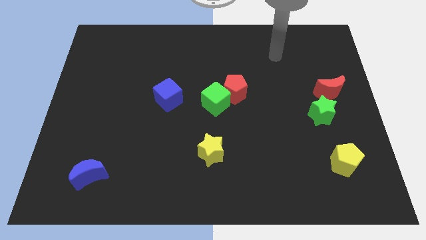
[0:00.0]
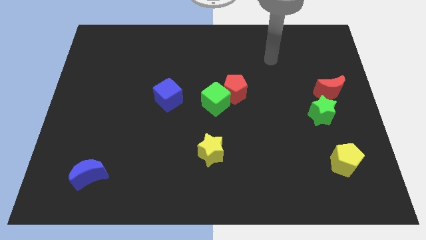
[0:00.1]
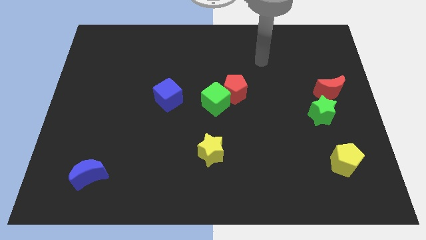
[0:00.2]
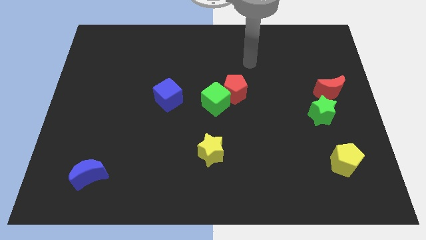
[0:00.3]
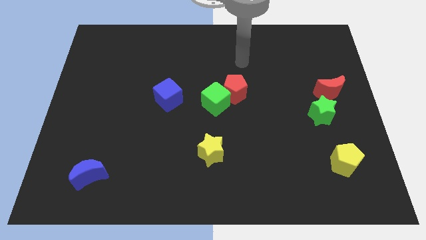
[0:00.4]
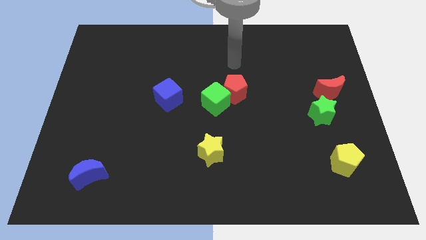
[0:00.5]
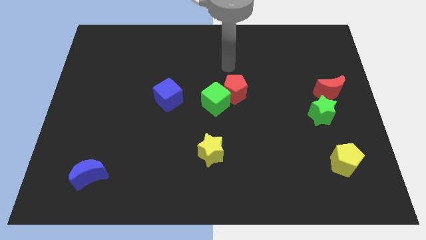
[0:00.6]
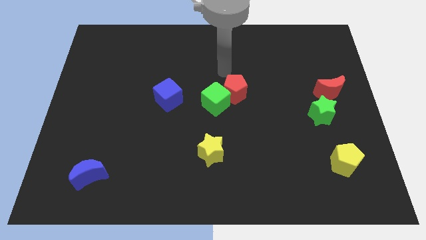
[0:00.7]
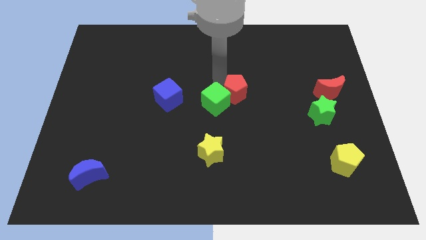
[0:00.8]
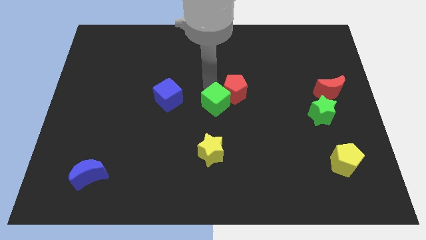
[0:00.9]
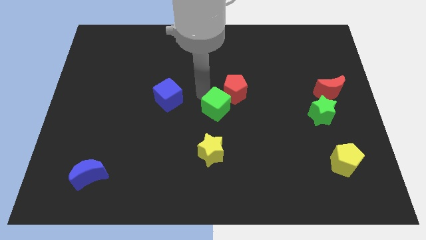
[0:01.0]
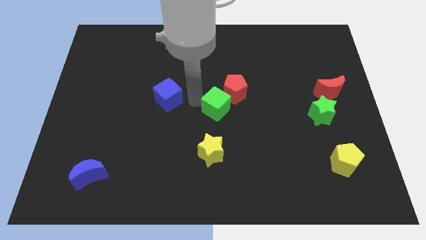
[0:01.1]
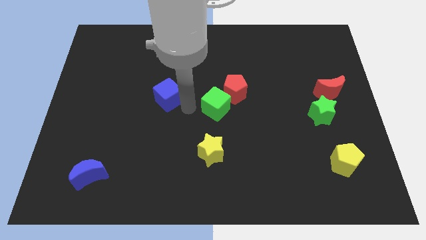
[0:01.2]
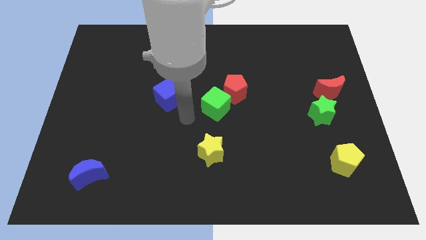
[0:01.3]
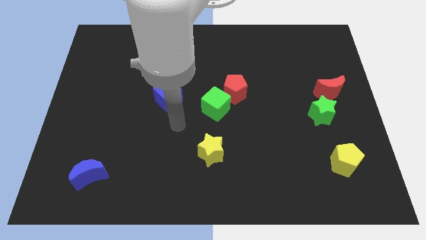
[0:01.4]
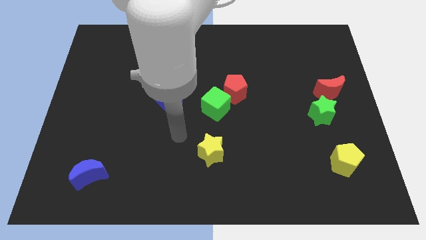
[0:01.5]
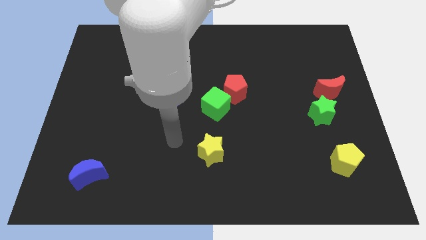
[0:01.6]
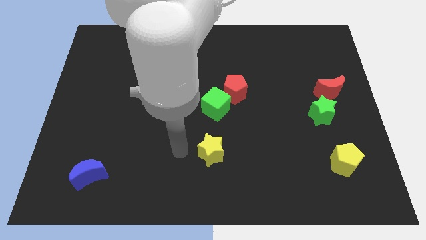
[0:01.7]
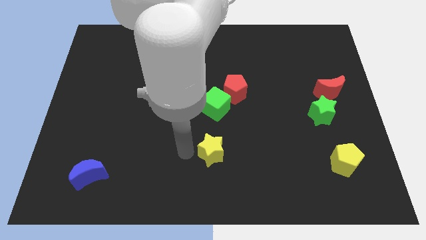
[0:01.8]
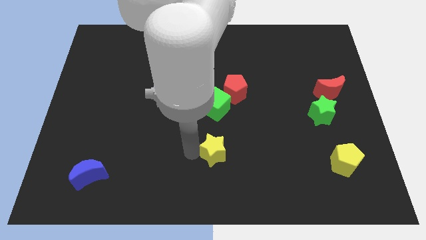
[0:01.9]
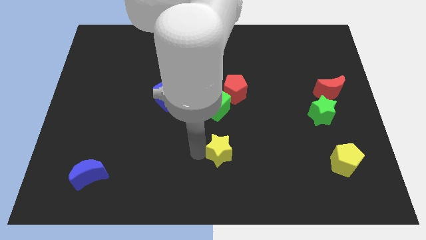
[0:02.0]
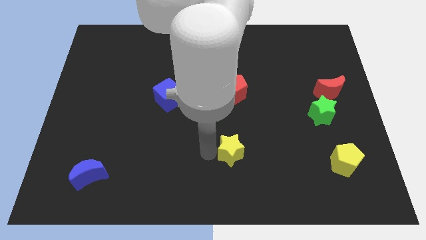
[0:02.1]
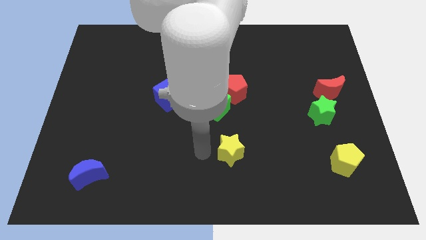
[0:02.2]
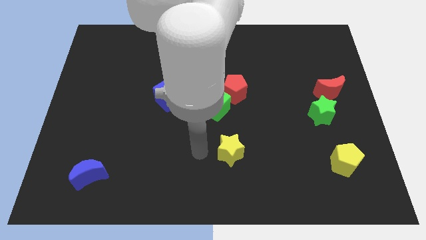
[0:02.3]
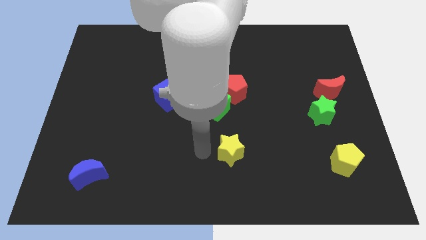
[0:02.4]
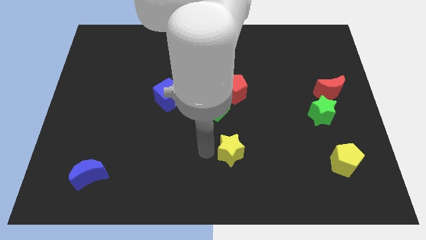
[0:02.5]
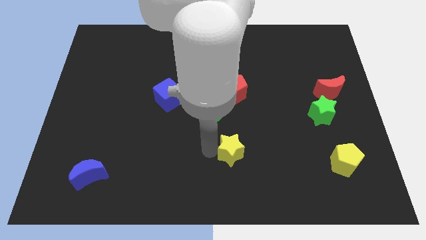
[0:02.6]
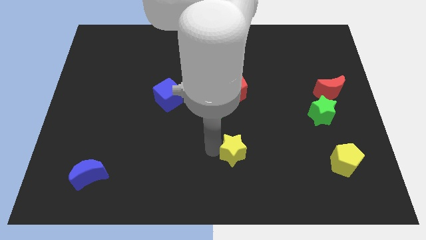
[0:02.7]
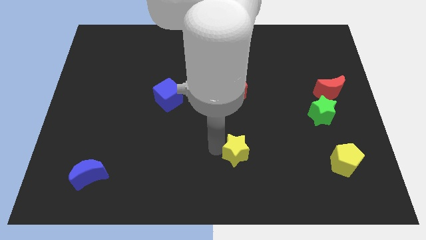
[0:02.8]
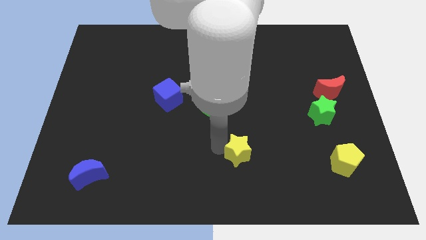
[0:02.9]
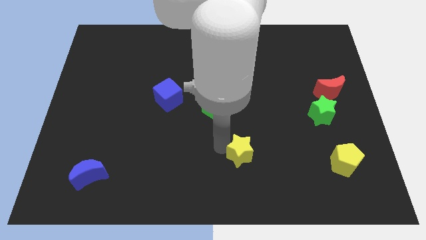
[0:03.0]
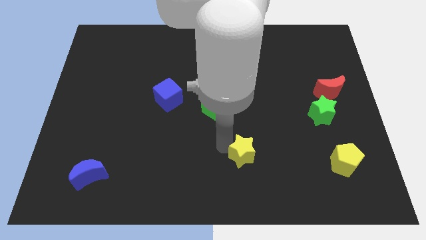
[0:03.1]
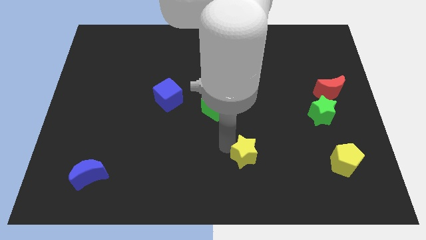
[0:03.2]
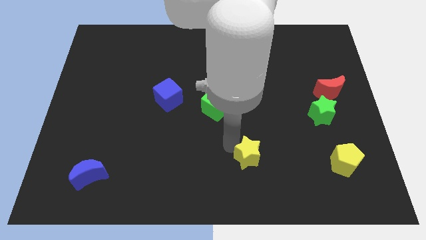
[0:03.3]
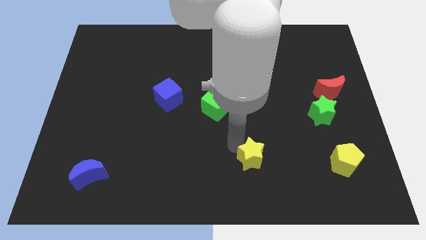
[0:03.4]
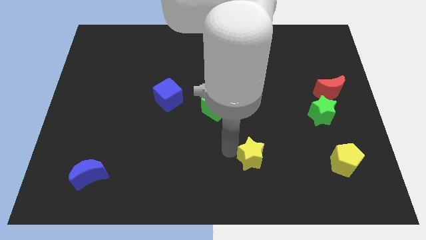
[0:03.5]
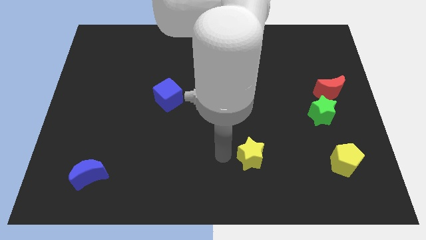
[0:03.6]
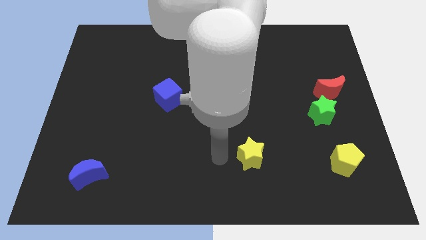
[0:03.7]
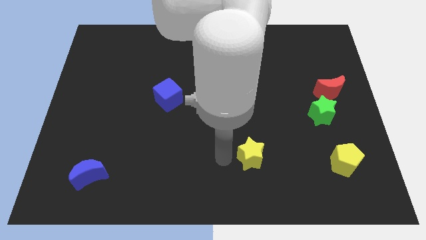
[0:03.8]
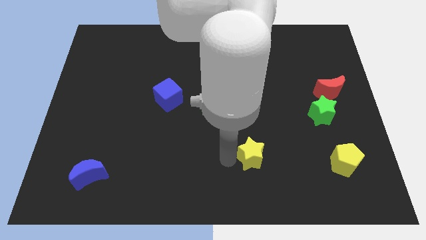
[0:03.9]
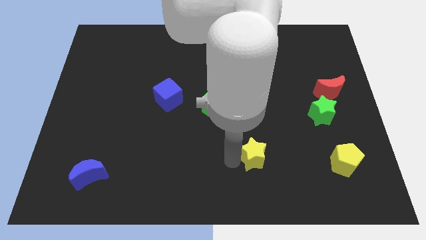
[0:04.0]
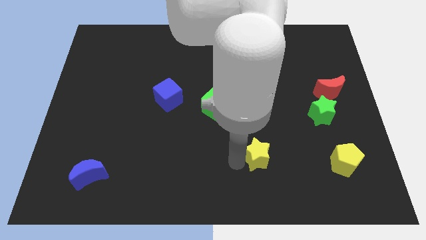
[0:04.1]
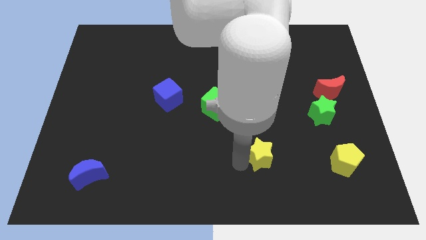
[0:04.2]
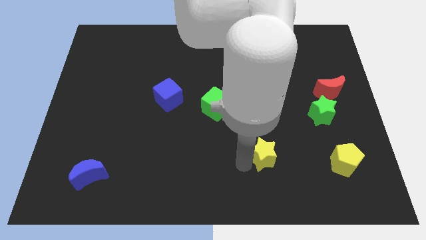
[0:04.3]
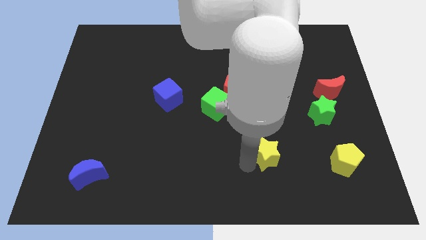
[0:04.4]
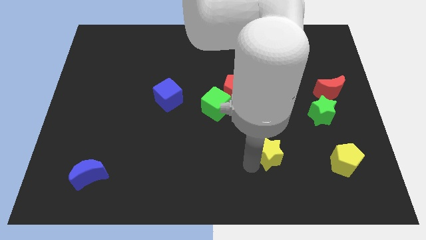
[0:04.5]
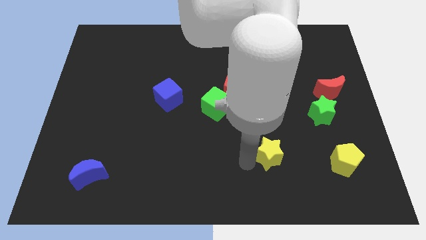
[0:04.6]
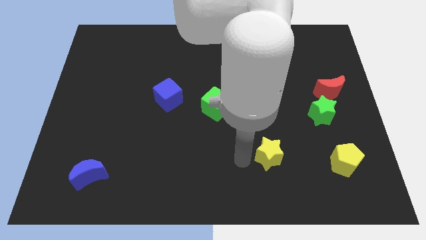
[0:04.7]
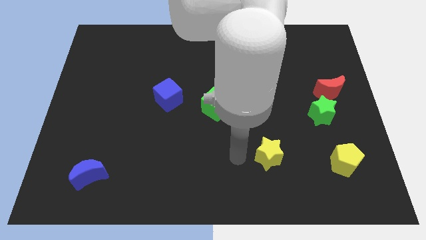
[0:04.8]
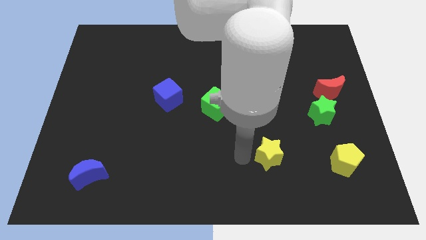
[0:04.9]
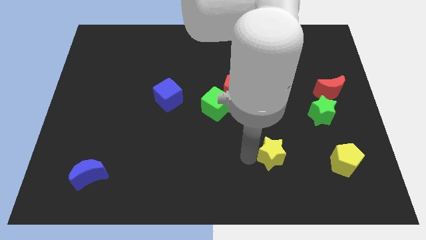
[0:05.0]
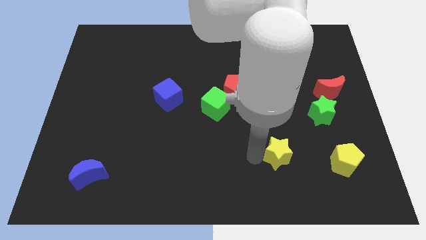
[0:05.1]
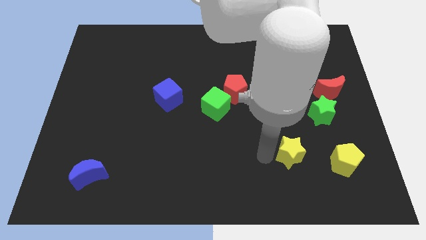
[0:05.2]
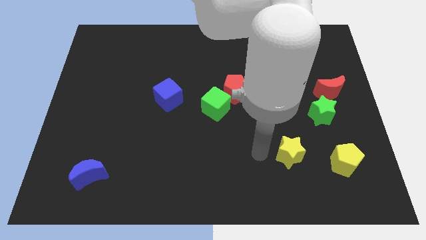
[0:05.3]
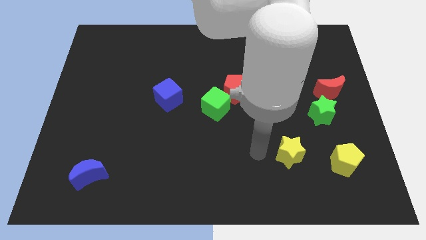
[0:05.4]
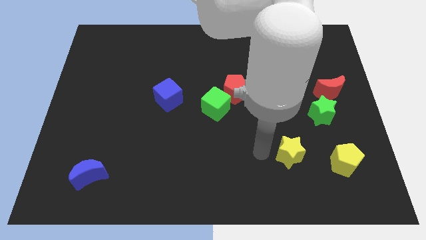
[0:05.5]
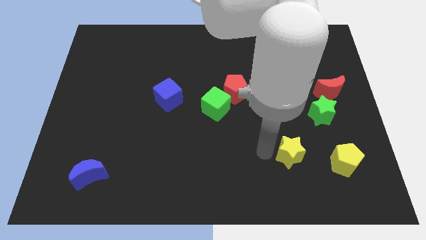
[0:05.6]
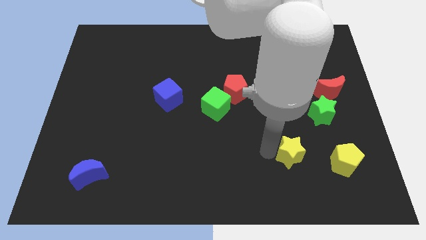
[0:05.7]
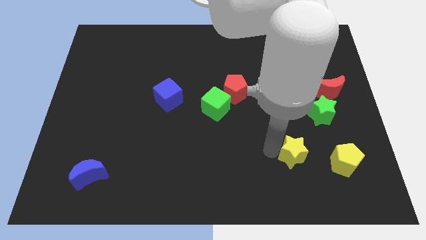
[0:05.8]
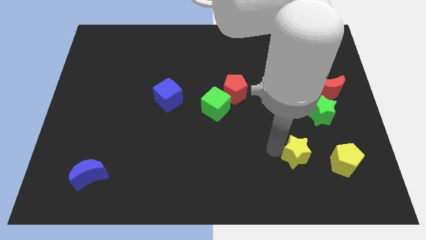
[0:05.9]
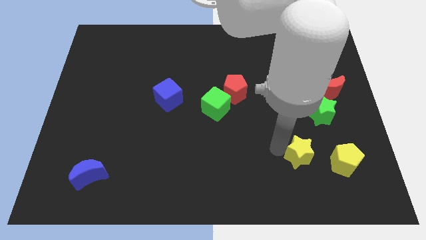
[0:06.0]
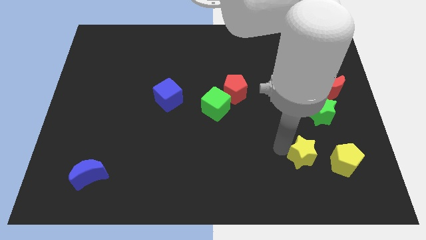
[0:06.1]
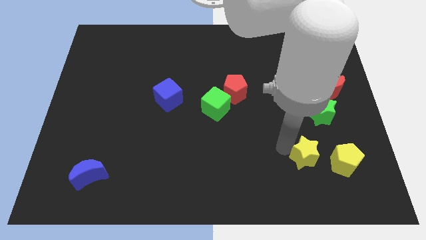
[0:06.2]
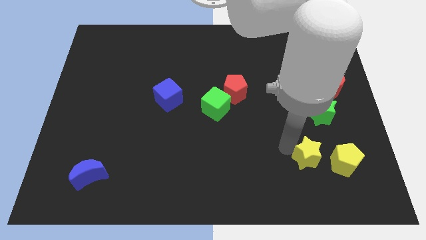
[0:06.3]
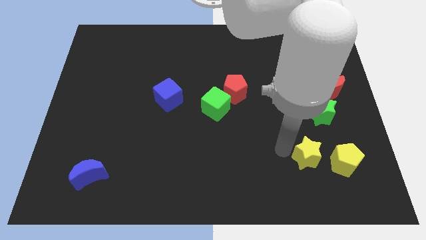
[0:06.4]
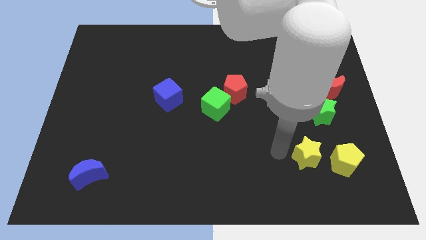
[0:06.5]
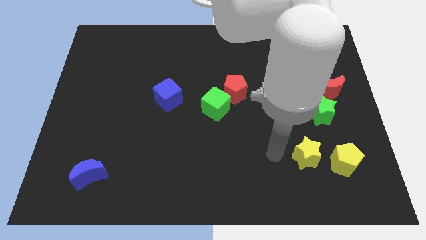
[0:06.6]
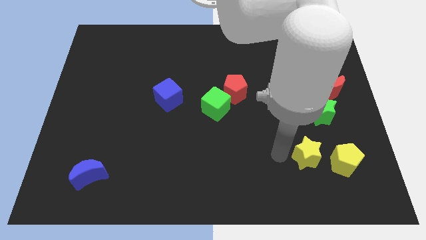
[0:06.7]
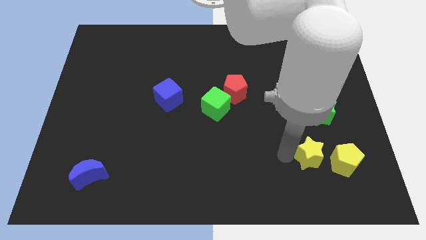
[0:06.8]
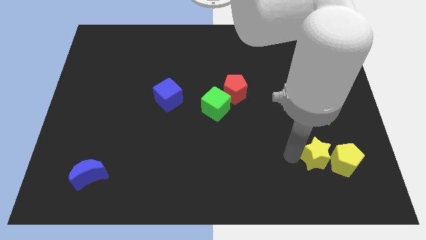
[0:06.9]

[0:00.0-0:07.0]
put the yellow star next to the yellow pentagon
